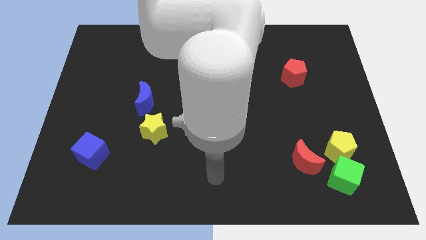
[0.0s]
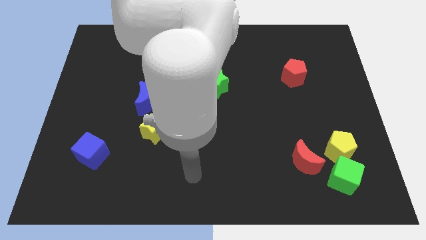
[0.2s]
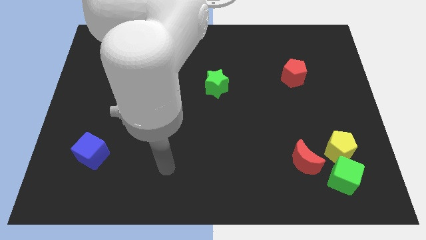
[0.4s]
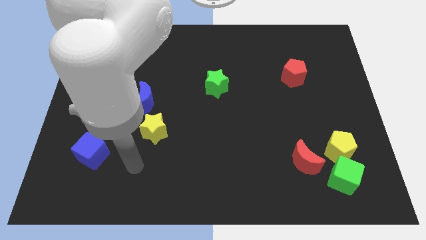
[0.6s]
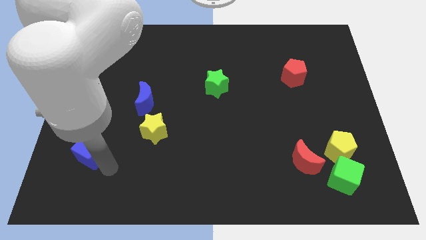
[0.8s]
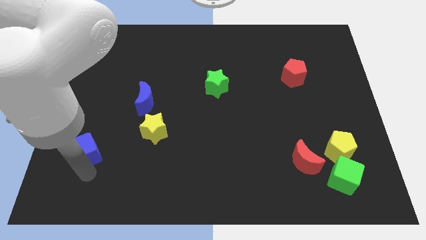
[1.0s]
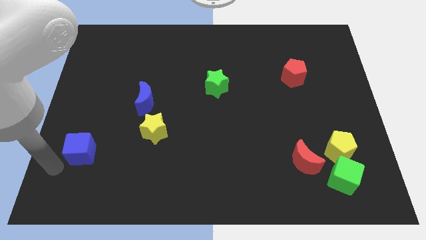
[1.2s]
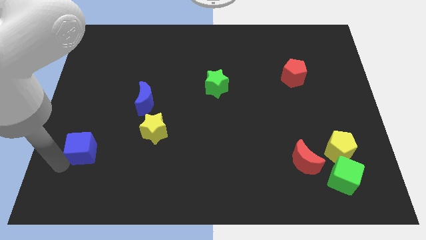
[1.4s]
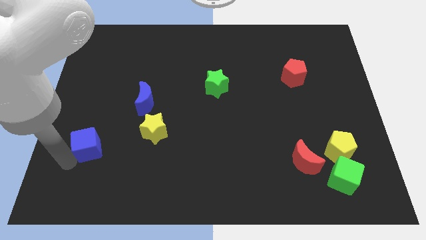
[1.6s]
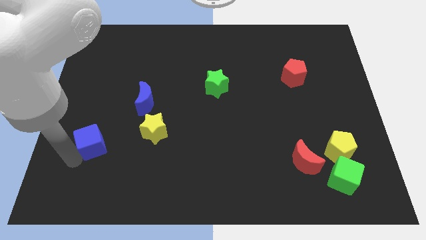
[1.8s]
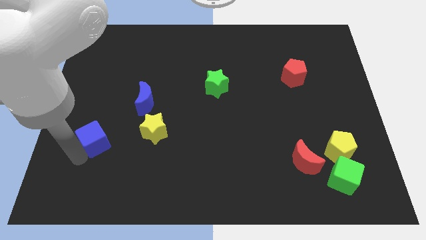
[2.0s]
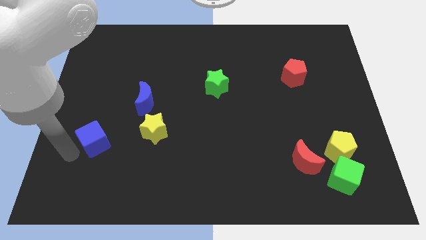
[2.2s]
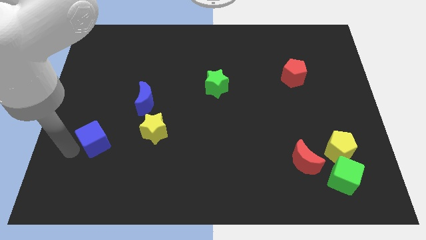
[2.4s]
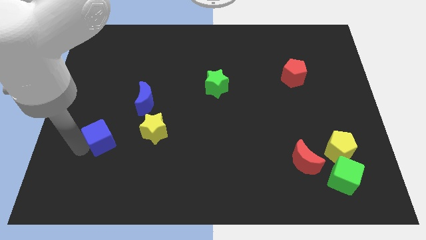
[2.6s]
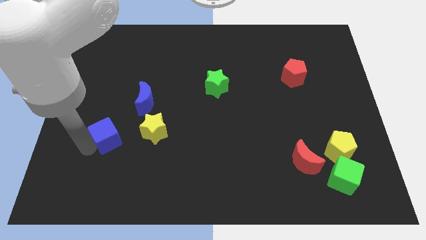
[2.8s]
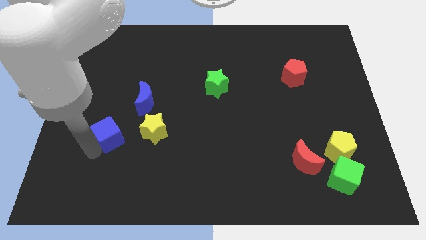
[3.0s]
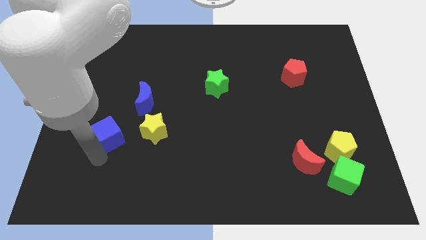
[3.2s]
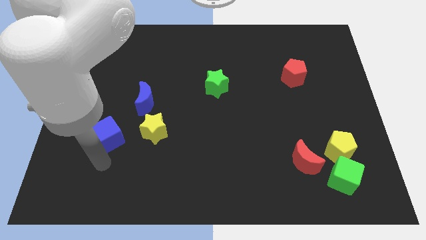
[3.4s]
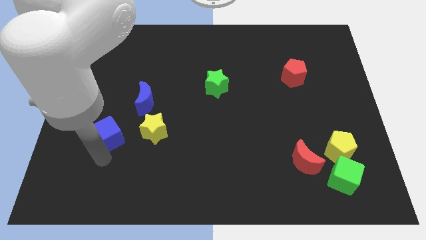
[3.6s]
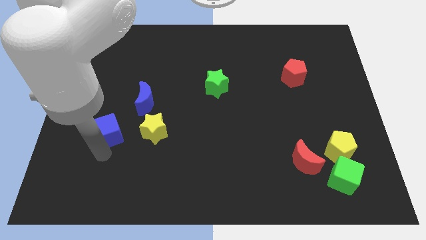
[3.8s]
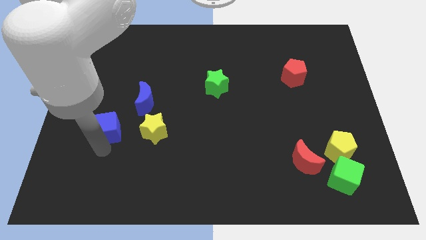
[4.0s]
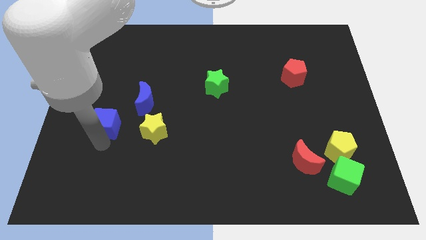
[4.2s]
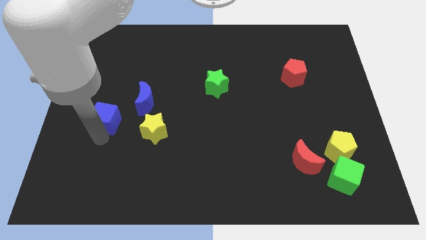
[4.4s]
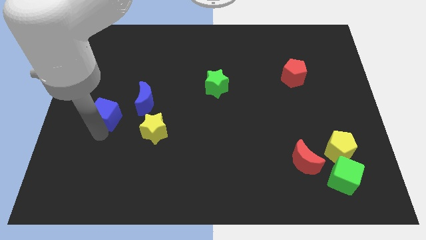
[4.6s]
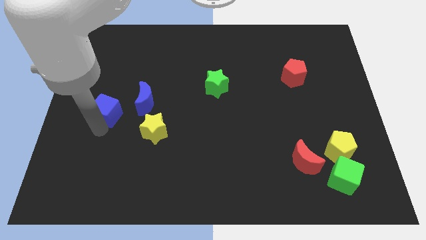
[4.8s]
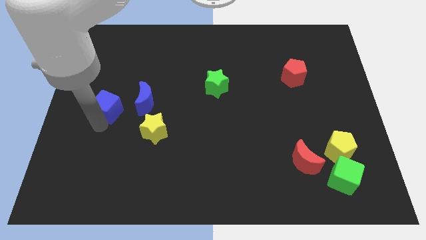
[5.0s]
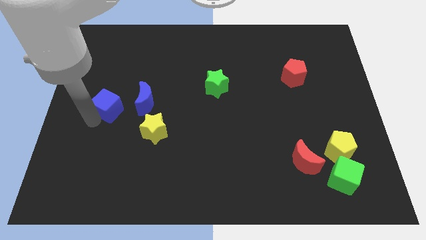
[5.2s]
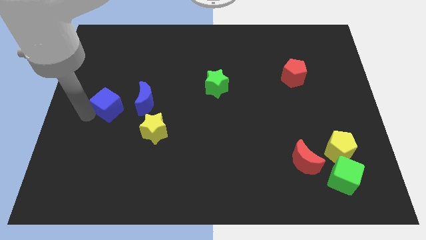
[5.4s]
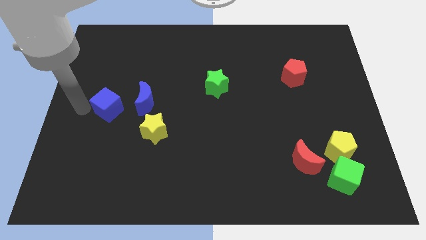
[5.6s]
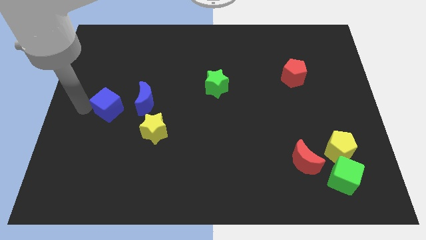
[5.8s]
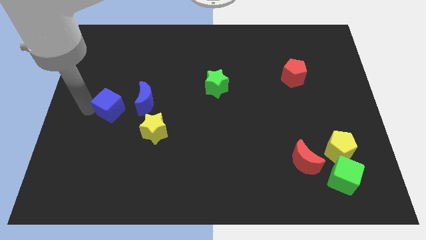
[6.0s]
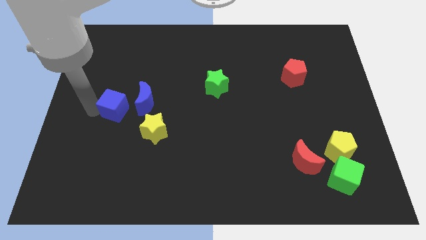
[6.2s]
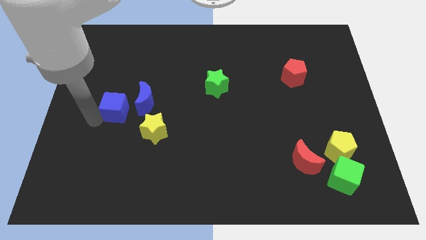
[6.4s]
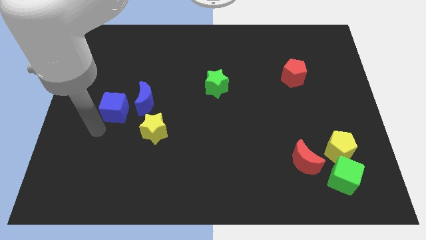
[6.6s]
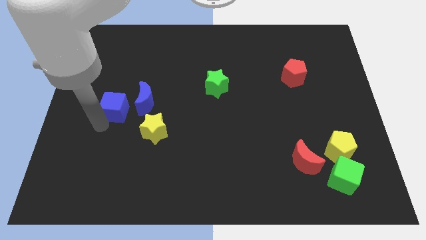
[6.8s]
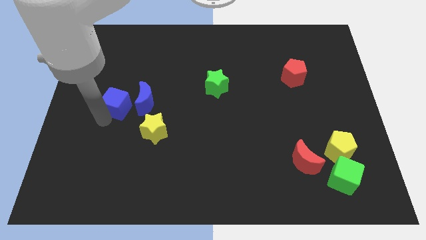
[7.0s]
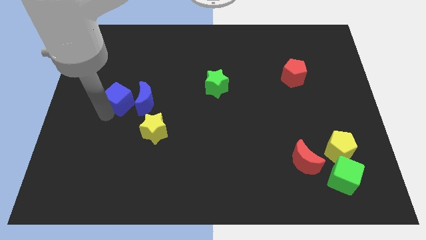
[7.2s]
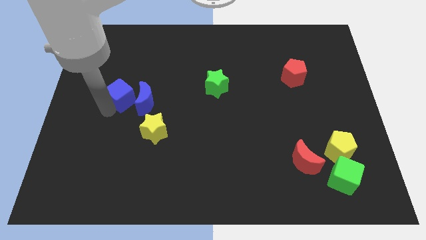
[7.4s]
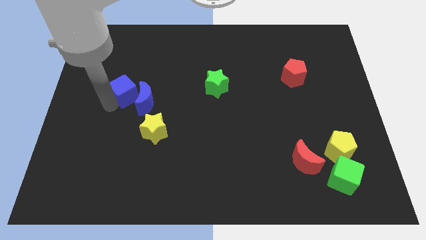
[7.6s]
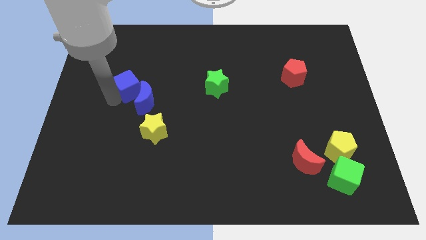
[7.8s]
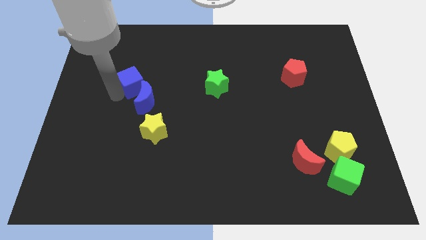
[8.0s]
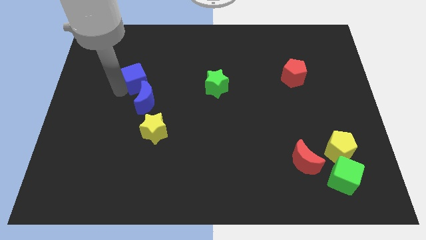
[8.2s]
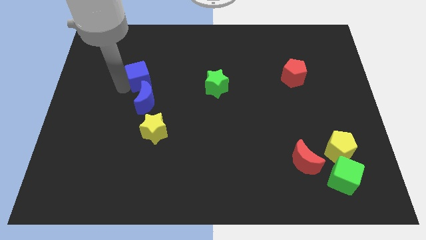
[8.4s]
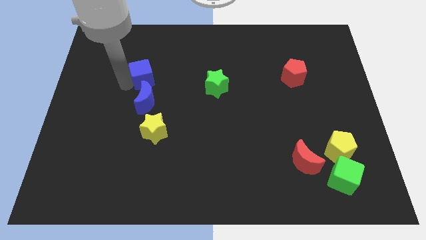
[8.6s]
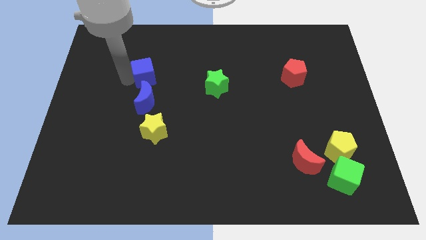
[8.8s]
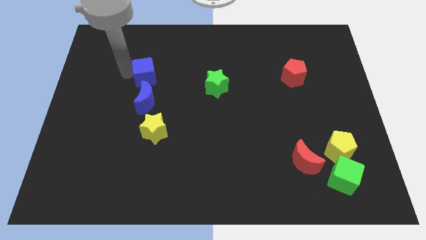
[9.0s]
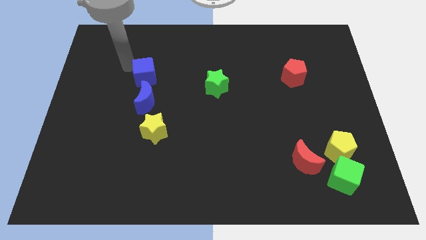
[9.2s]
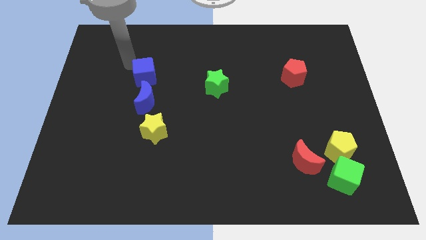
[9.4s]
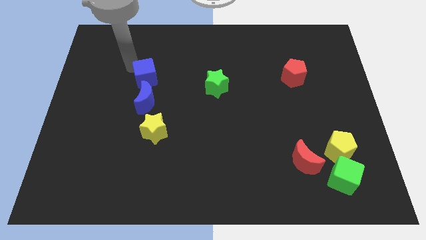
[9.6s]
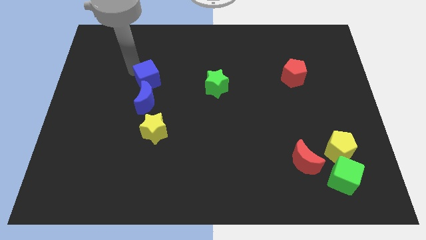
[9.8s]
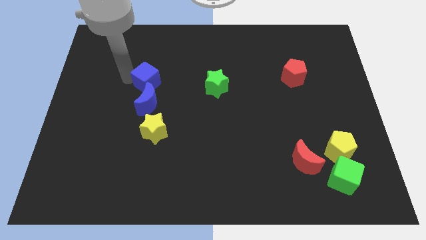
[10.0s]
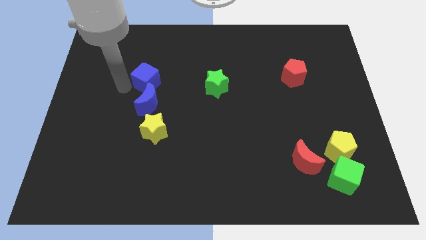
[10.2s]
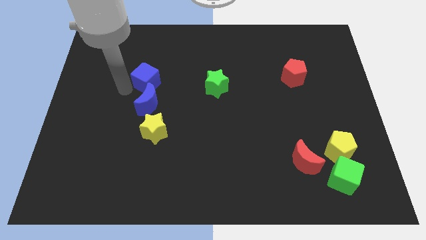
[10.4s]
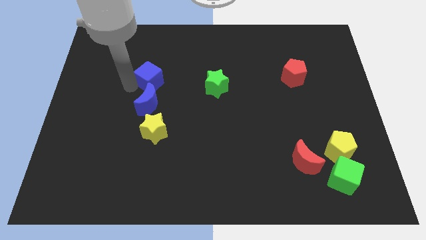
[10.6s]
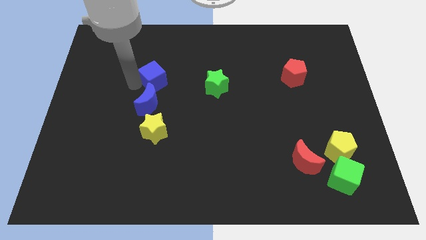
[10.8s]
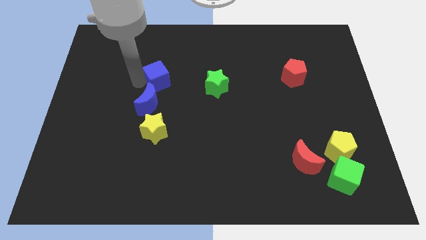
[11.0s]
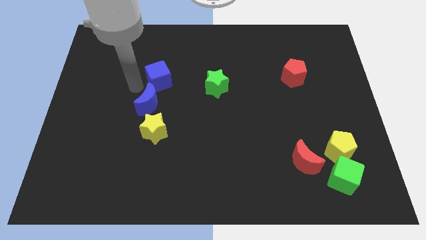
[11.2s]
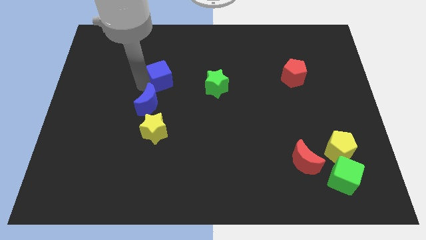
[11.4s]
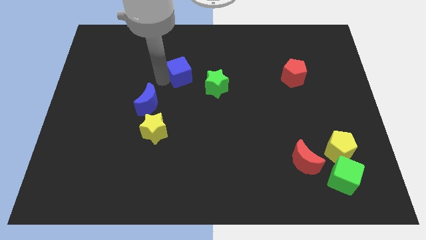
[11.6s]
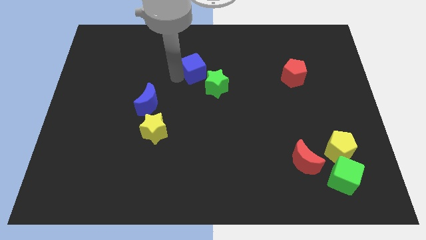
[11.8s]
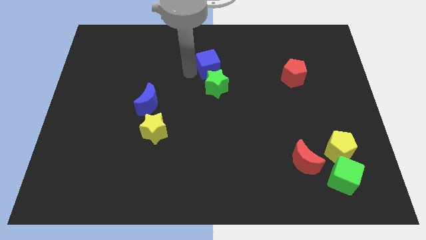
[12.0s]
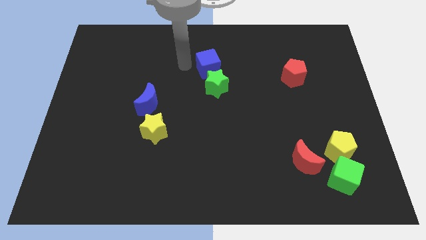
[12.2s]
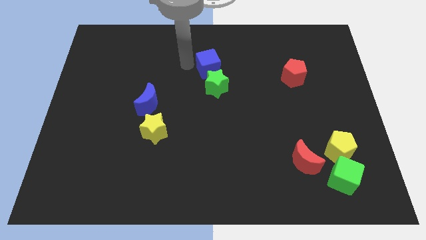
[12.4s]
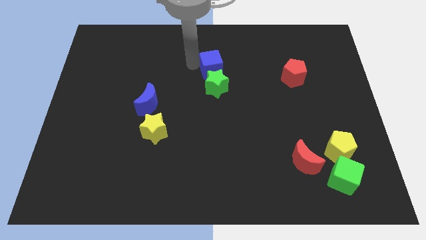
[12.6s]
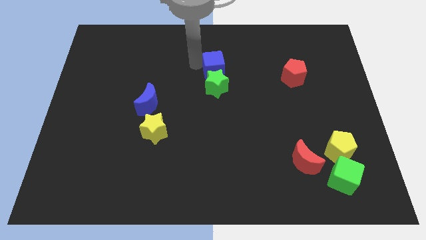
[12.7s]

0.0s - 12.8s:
slide the blue cube diagonally up and to the right of the green star

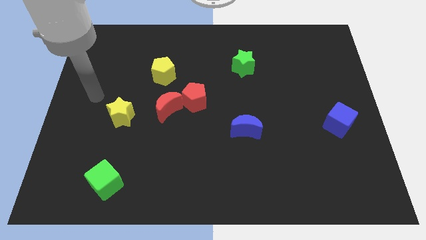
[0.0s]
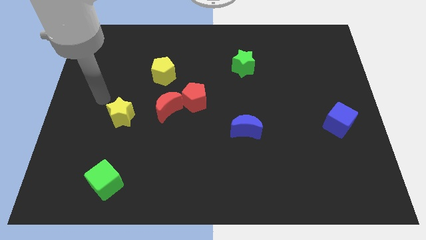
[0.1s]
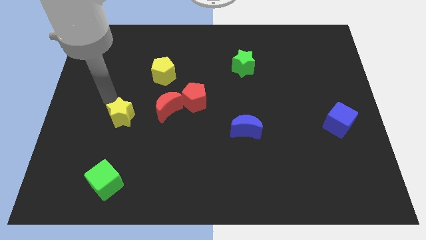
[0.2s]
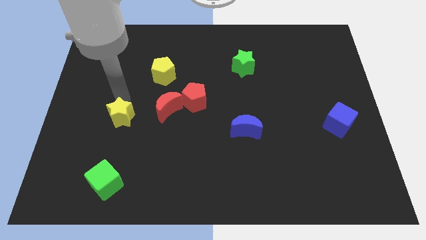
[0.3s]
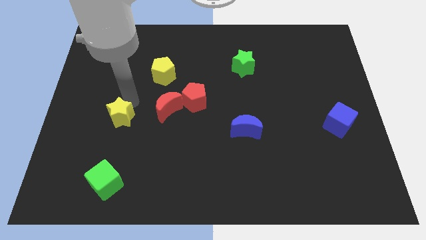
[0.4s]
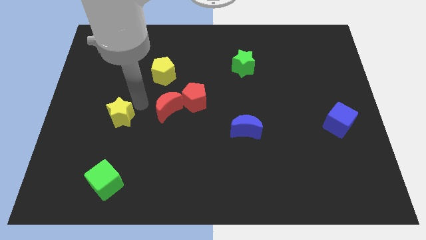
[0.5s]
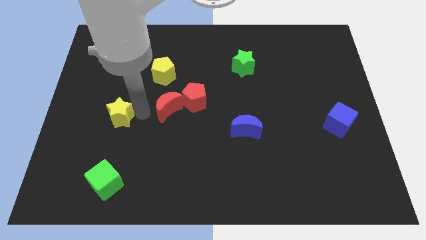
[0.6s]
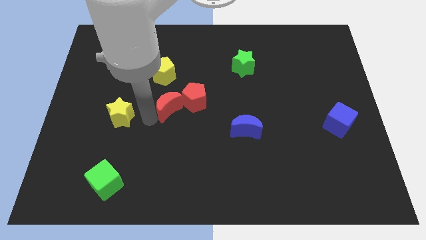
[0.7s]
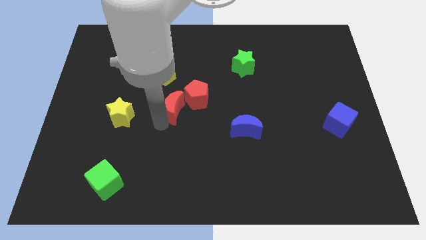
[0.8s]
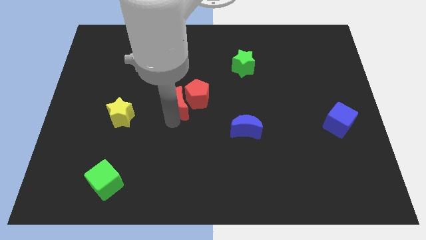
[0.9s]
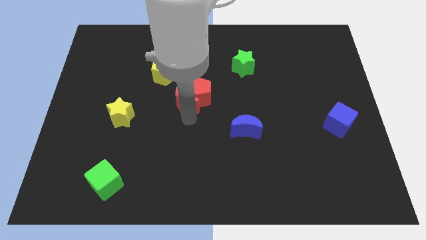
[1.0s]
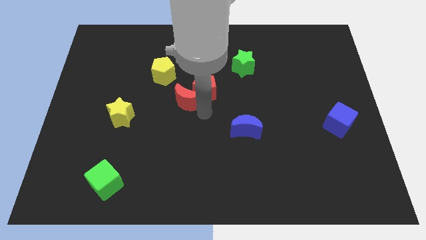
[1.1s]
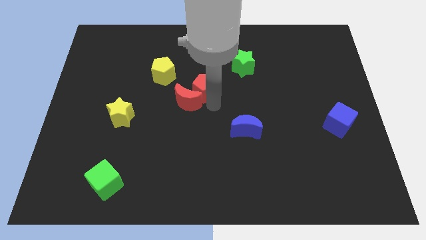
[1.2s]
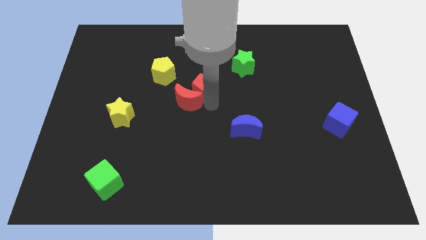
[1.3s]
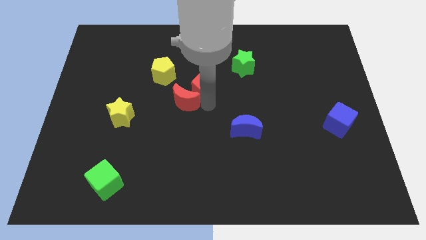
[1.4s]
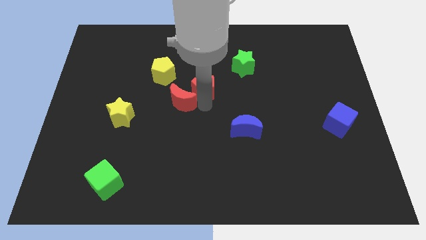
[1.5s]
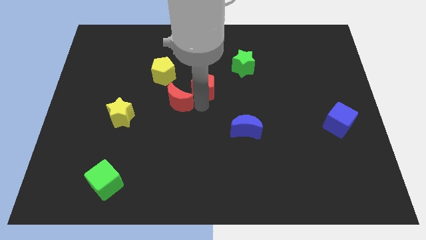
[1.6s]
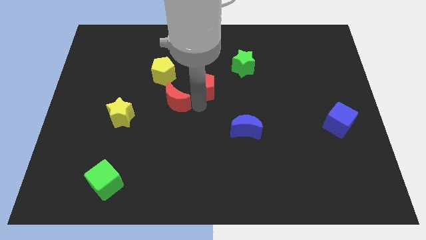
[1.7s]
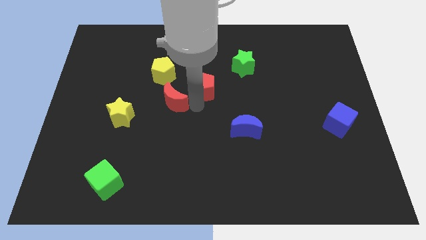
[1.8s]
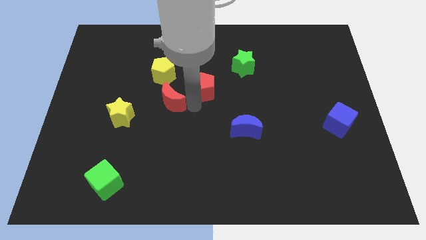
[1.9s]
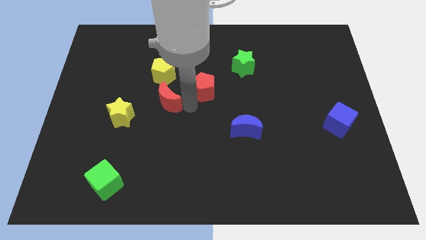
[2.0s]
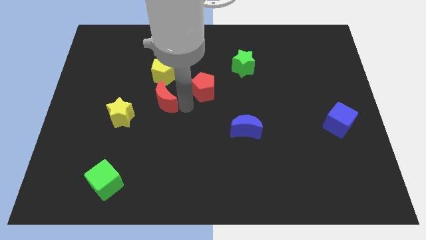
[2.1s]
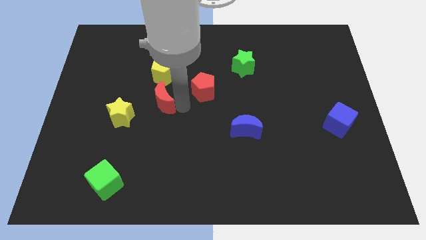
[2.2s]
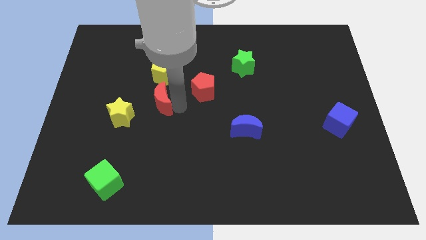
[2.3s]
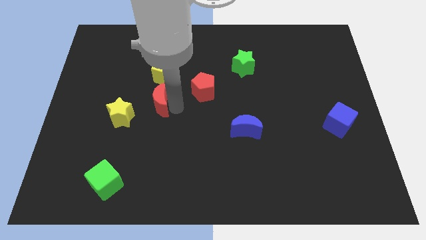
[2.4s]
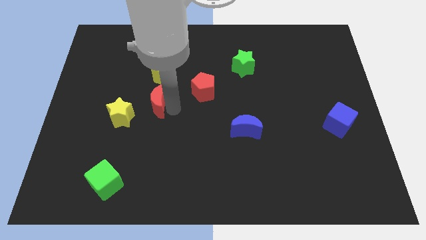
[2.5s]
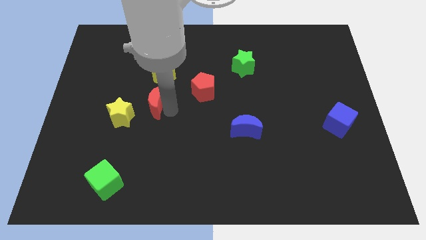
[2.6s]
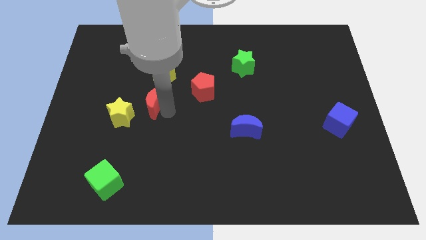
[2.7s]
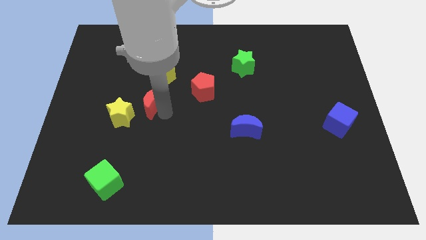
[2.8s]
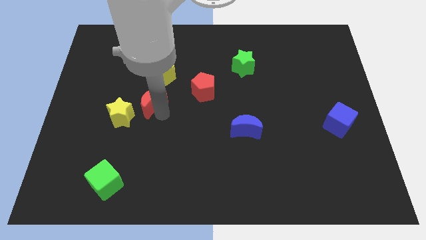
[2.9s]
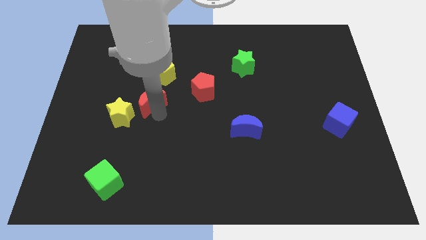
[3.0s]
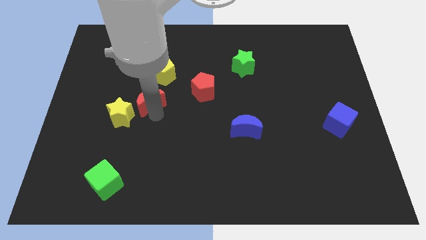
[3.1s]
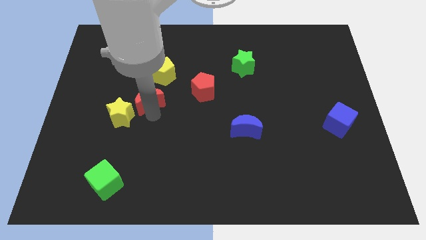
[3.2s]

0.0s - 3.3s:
move the red moon to the bottom left of the yellow pentagon
